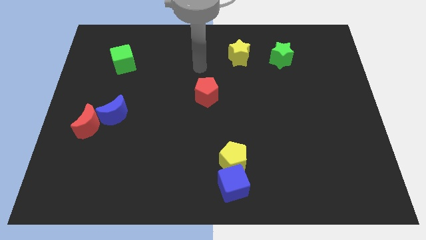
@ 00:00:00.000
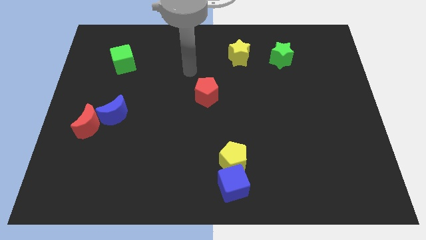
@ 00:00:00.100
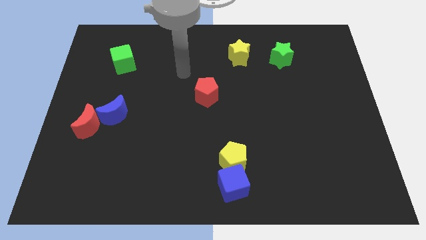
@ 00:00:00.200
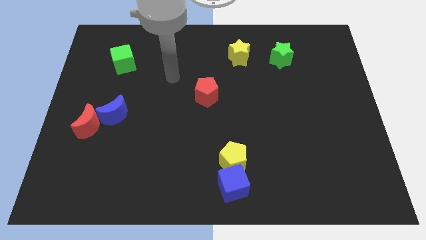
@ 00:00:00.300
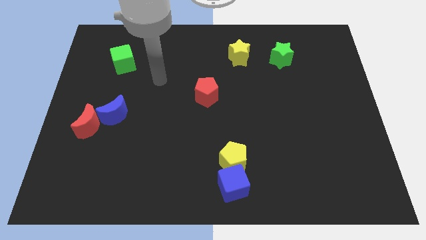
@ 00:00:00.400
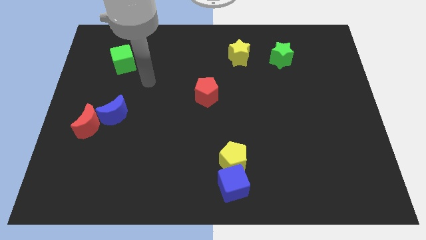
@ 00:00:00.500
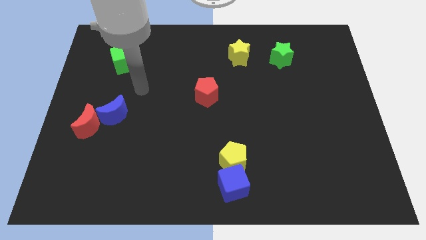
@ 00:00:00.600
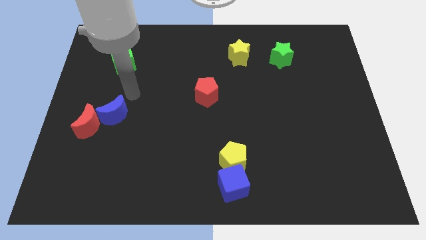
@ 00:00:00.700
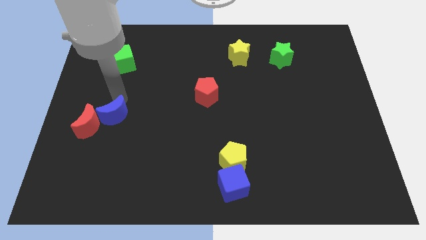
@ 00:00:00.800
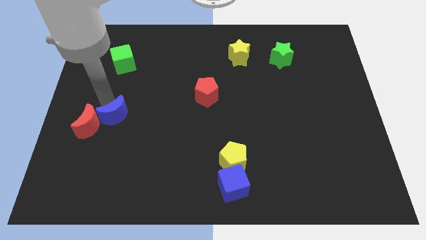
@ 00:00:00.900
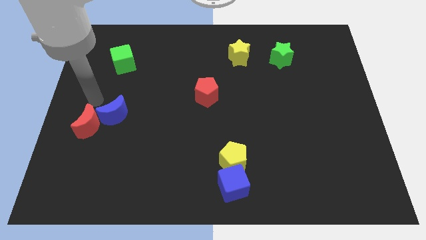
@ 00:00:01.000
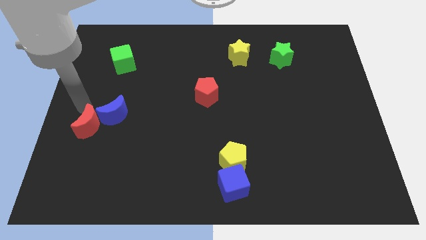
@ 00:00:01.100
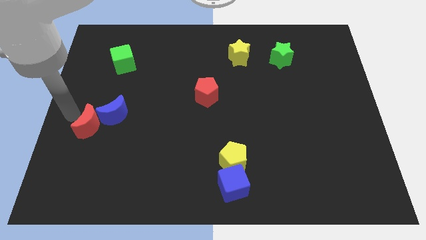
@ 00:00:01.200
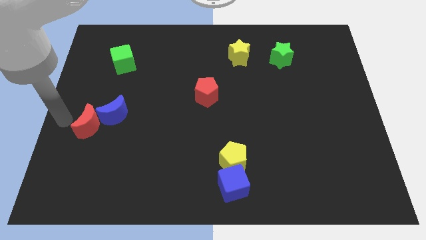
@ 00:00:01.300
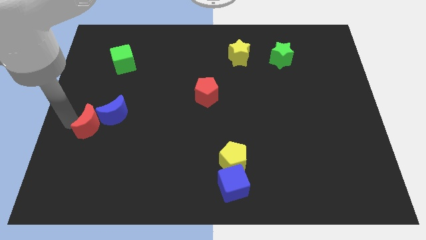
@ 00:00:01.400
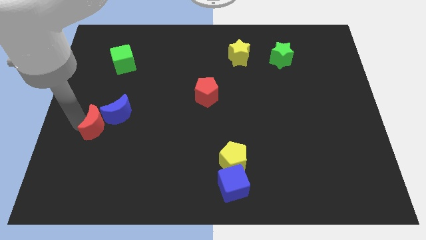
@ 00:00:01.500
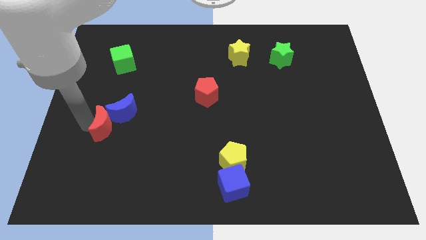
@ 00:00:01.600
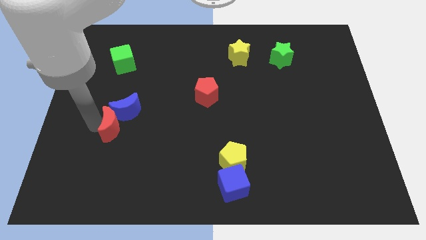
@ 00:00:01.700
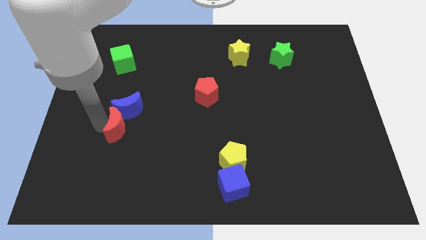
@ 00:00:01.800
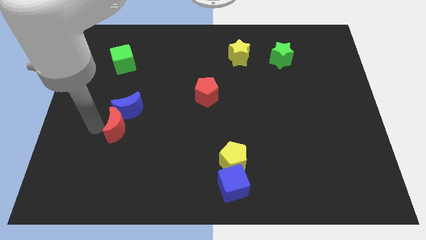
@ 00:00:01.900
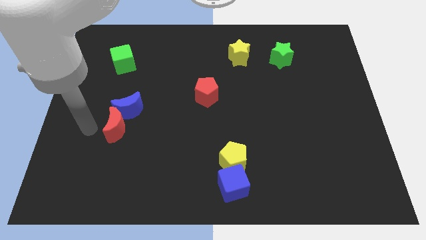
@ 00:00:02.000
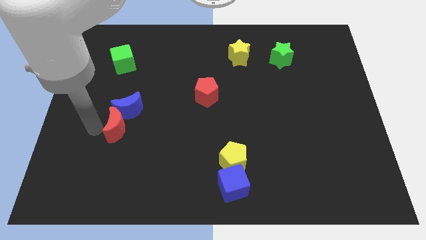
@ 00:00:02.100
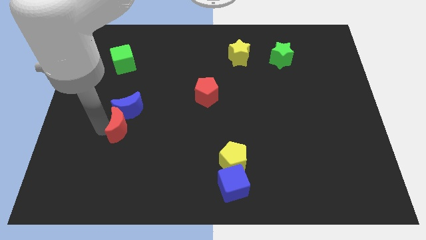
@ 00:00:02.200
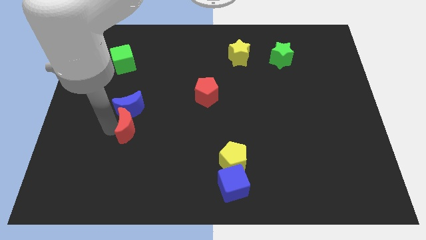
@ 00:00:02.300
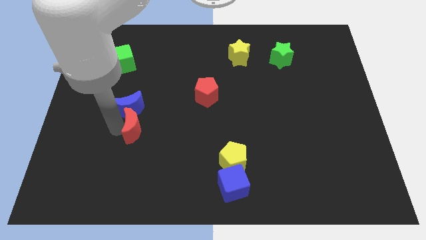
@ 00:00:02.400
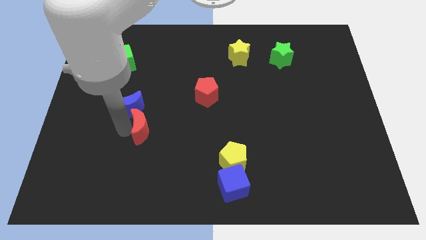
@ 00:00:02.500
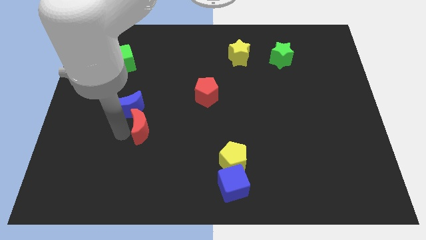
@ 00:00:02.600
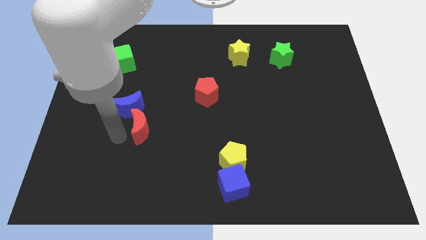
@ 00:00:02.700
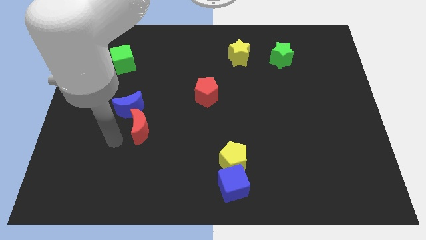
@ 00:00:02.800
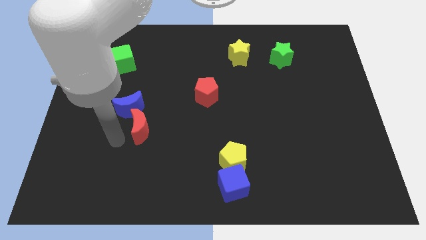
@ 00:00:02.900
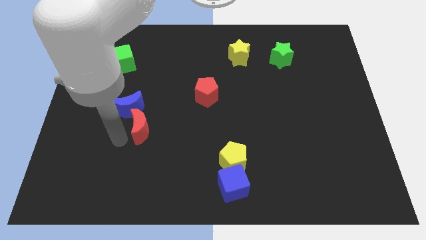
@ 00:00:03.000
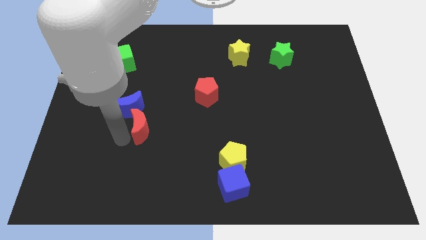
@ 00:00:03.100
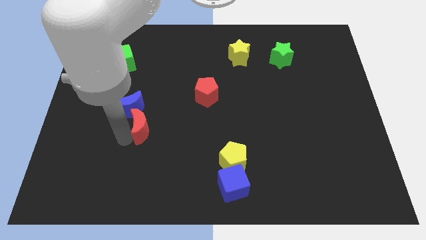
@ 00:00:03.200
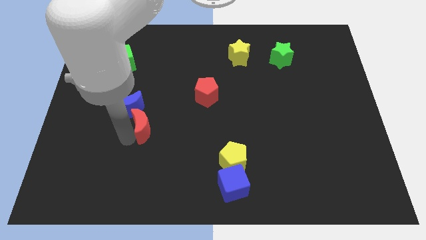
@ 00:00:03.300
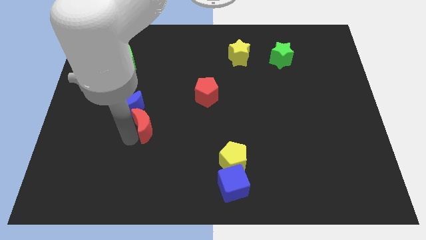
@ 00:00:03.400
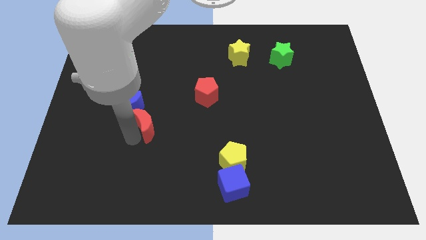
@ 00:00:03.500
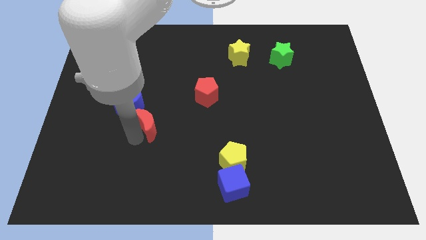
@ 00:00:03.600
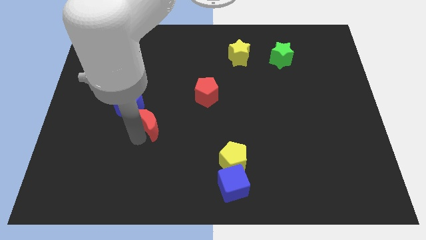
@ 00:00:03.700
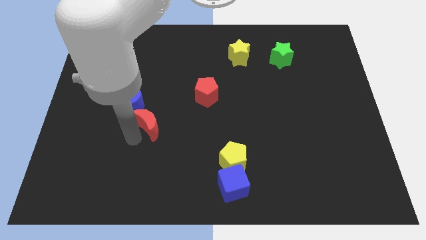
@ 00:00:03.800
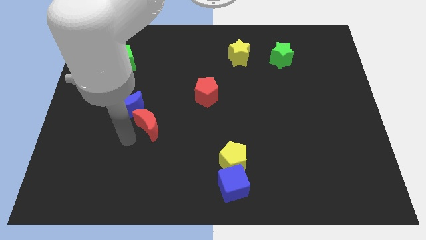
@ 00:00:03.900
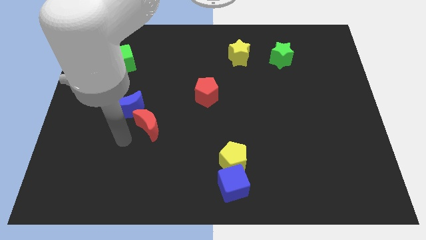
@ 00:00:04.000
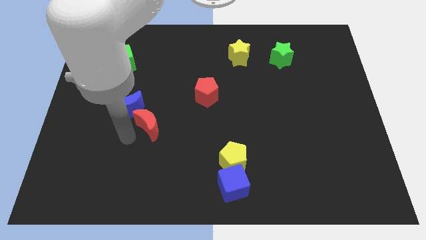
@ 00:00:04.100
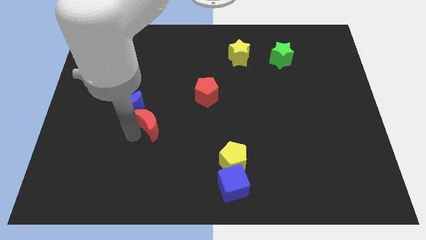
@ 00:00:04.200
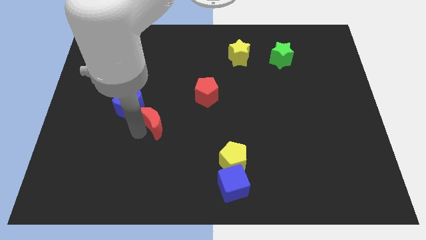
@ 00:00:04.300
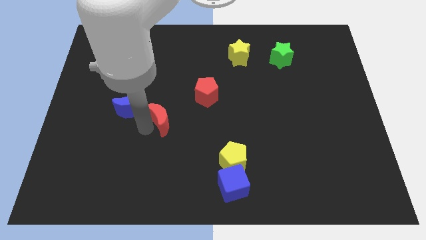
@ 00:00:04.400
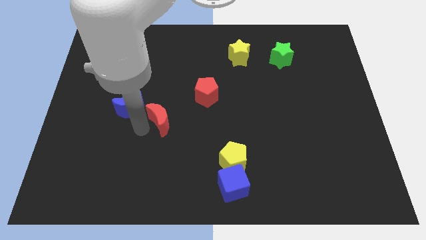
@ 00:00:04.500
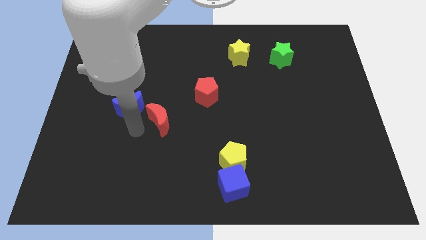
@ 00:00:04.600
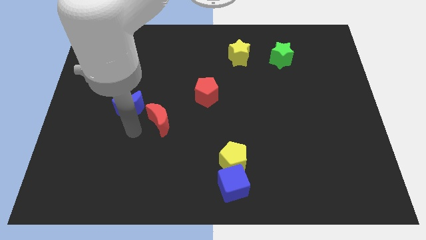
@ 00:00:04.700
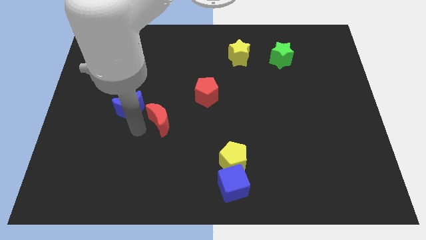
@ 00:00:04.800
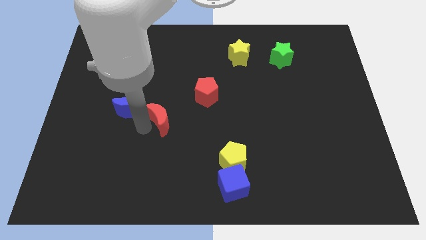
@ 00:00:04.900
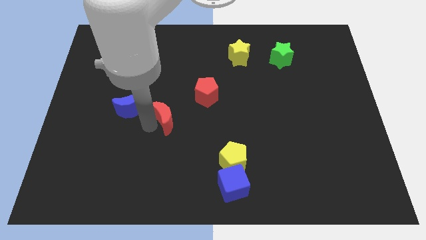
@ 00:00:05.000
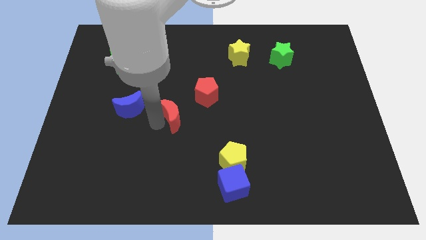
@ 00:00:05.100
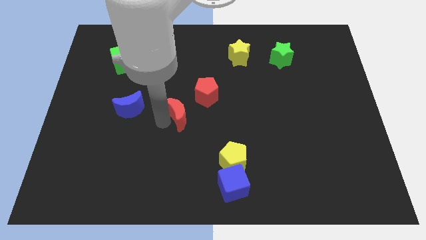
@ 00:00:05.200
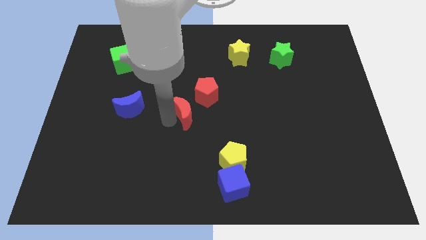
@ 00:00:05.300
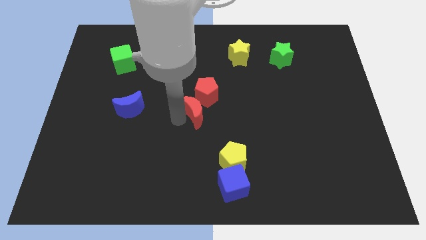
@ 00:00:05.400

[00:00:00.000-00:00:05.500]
slide the red moon close to the red pentagon

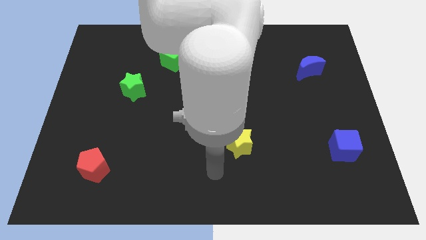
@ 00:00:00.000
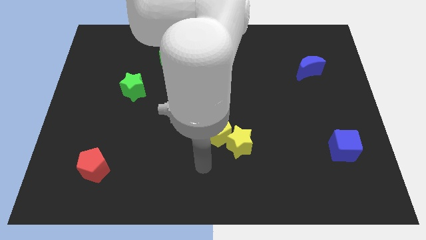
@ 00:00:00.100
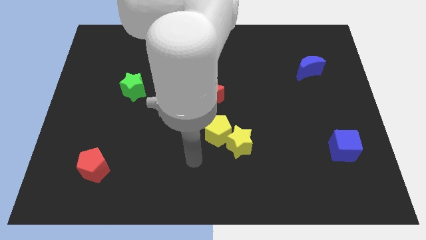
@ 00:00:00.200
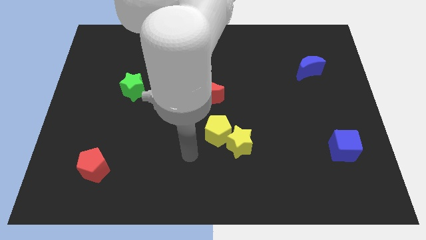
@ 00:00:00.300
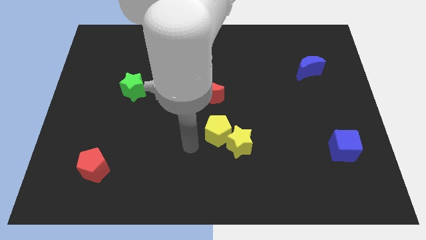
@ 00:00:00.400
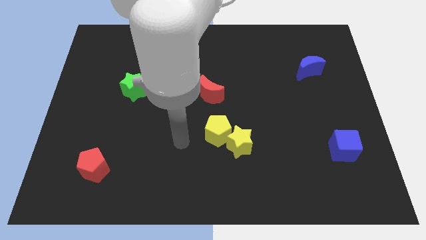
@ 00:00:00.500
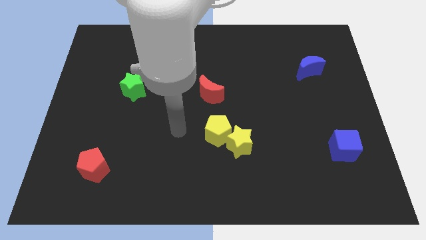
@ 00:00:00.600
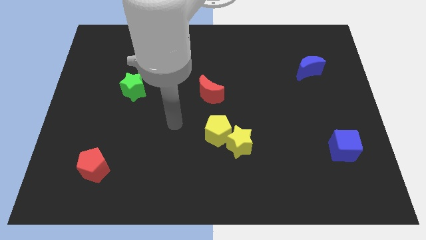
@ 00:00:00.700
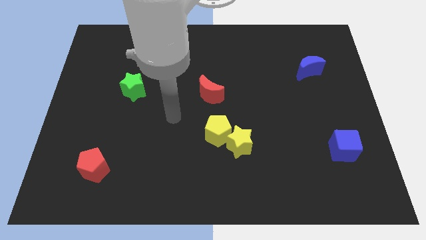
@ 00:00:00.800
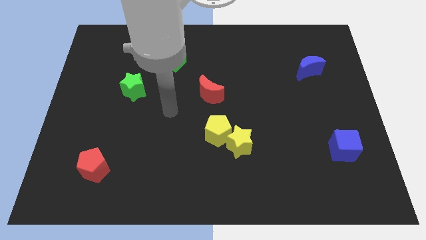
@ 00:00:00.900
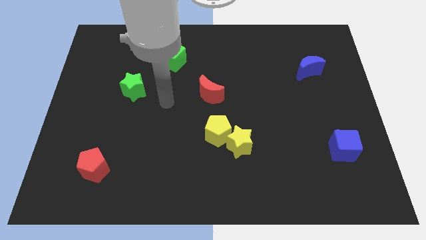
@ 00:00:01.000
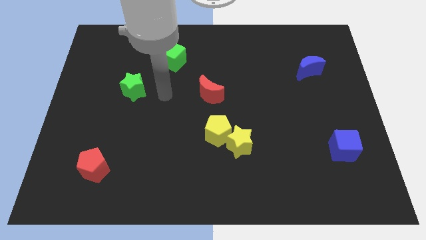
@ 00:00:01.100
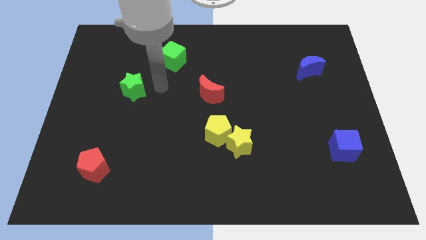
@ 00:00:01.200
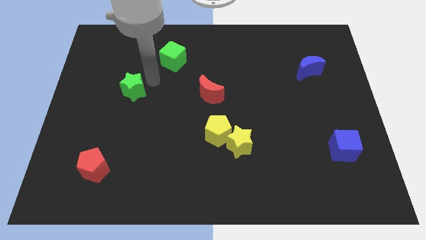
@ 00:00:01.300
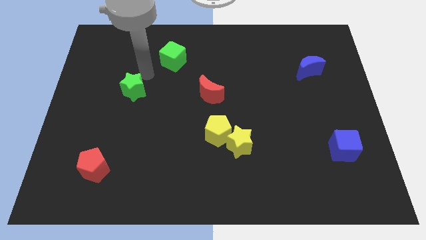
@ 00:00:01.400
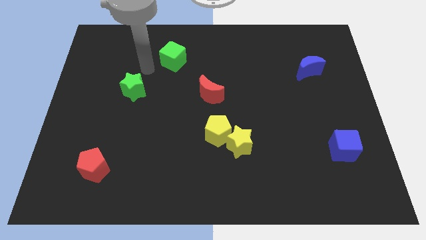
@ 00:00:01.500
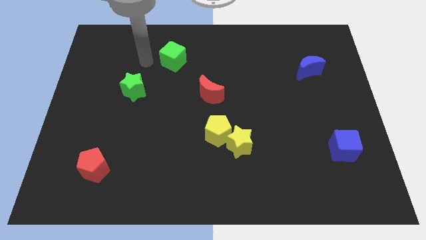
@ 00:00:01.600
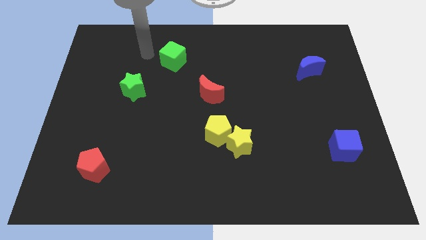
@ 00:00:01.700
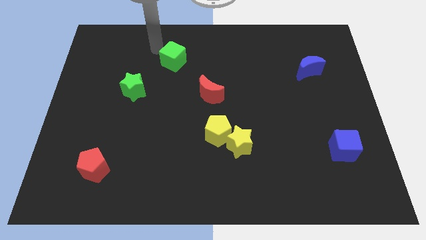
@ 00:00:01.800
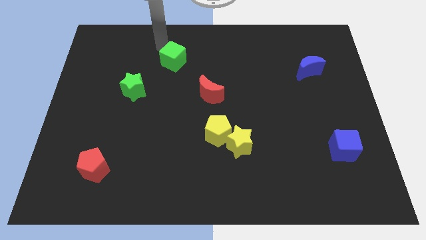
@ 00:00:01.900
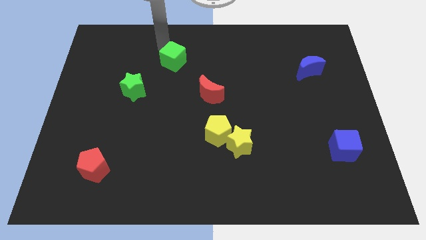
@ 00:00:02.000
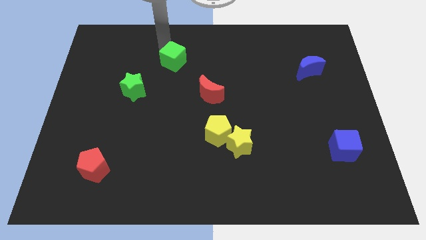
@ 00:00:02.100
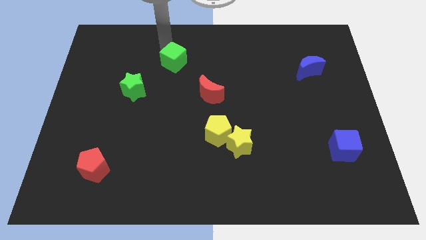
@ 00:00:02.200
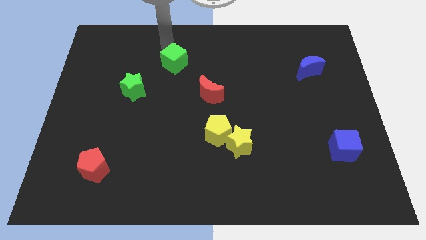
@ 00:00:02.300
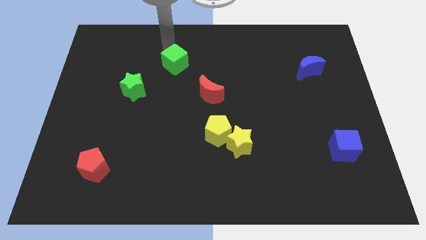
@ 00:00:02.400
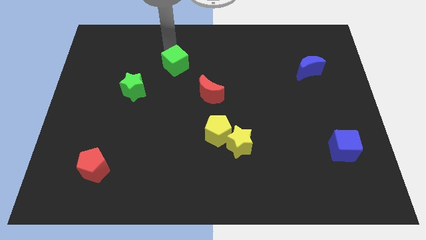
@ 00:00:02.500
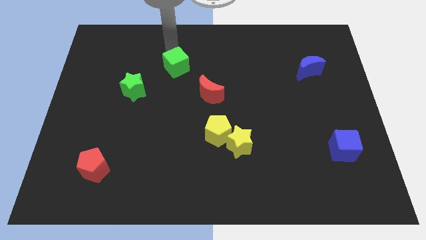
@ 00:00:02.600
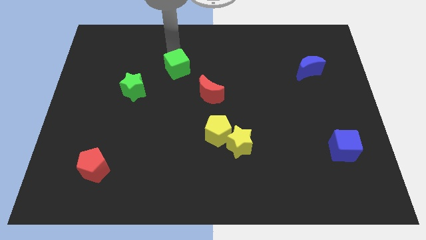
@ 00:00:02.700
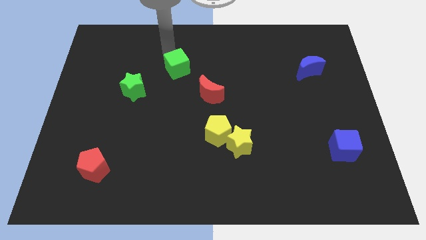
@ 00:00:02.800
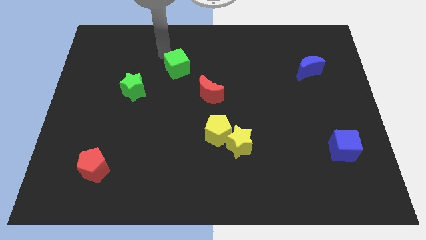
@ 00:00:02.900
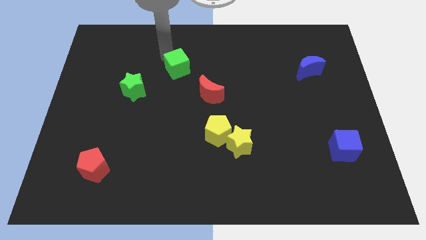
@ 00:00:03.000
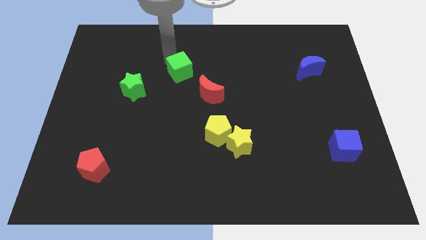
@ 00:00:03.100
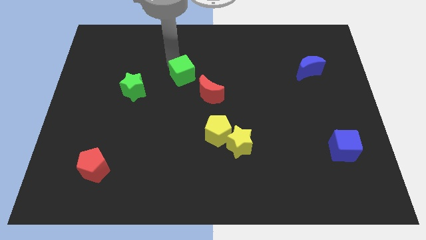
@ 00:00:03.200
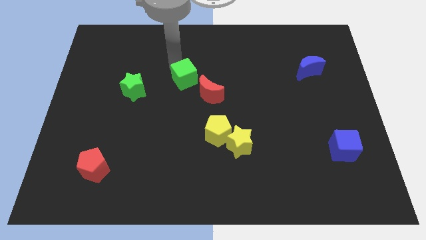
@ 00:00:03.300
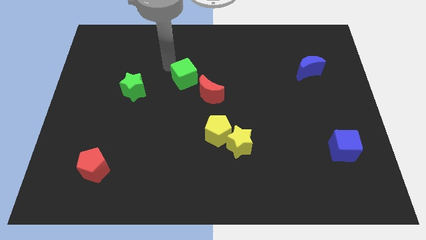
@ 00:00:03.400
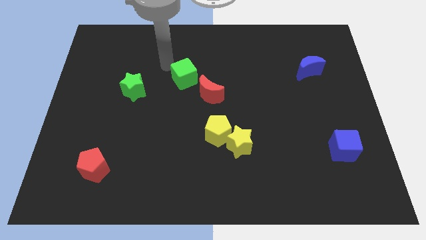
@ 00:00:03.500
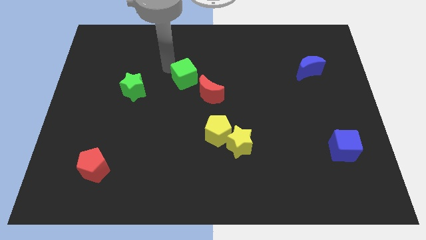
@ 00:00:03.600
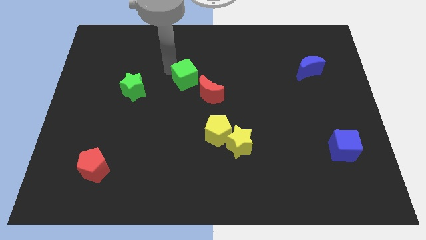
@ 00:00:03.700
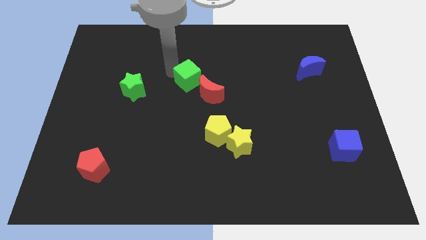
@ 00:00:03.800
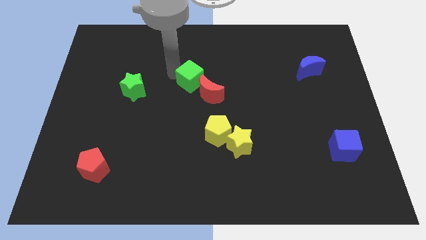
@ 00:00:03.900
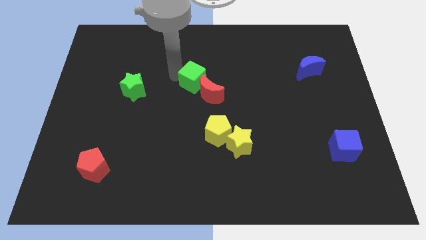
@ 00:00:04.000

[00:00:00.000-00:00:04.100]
move the green cube next to the red moon
